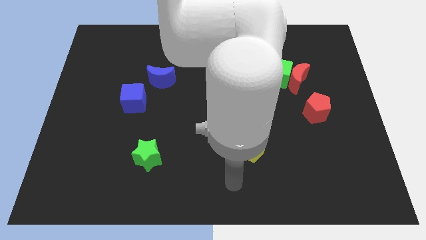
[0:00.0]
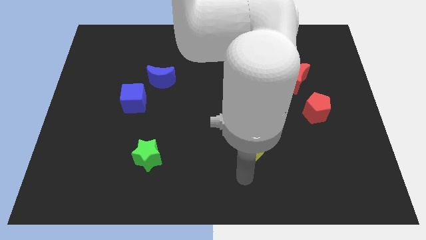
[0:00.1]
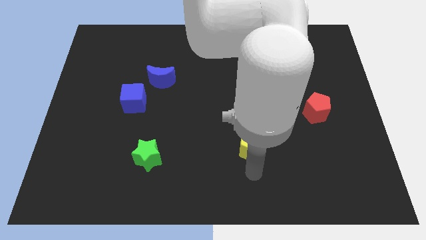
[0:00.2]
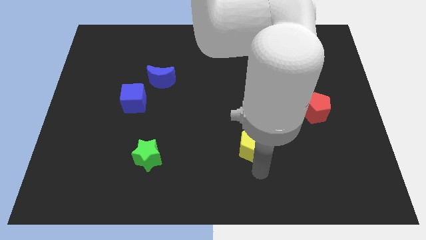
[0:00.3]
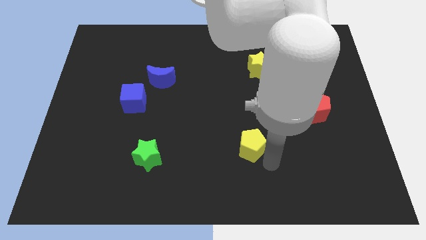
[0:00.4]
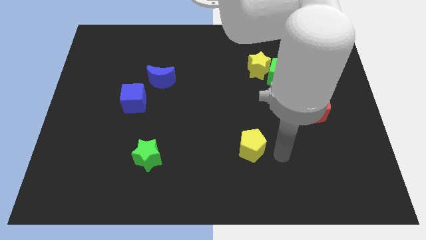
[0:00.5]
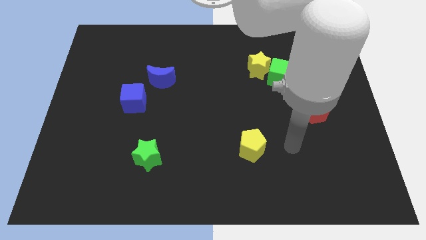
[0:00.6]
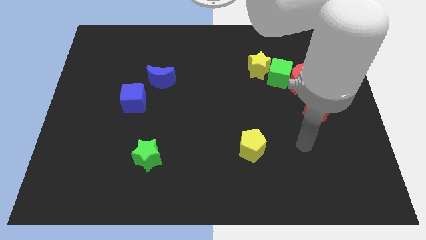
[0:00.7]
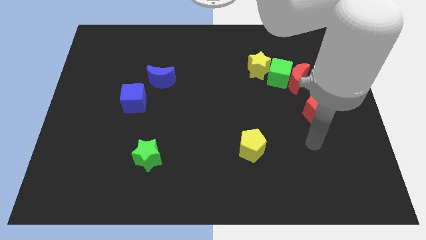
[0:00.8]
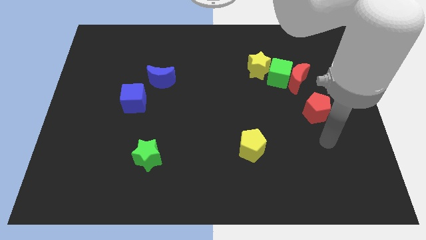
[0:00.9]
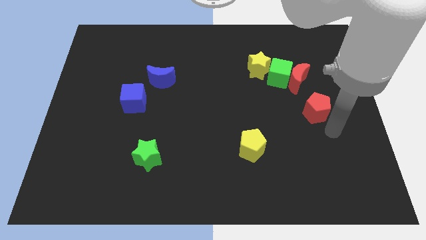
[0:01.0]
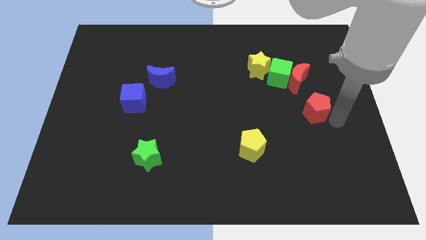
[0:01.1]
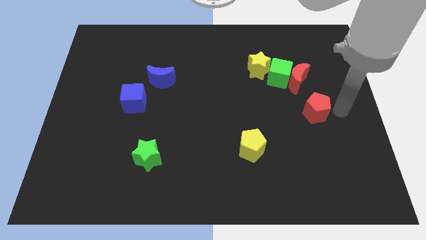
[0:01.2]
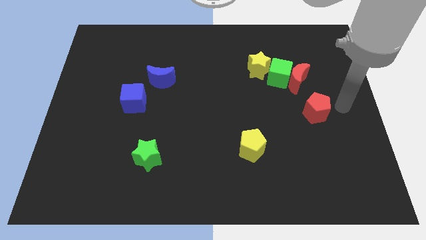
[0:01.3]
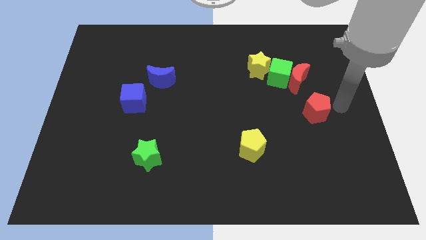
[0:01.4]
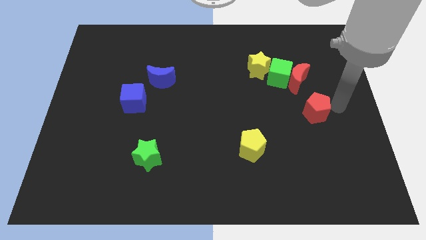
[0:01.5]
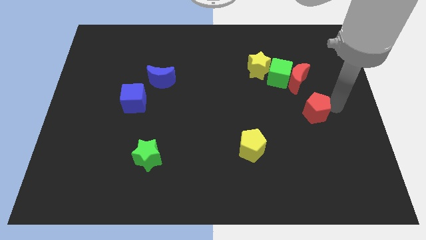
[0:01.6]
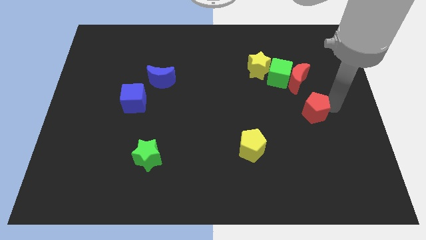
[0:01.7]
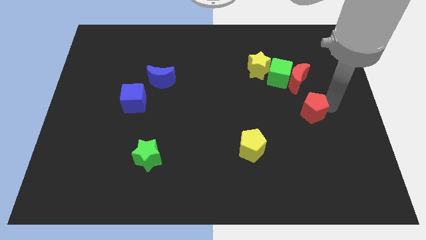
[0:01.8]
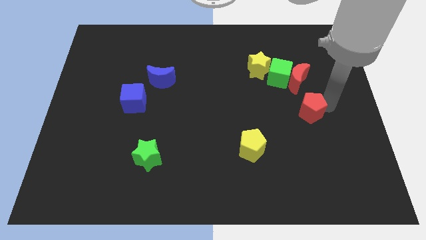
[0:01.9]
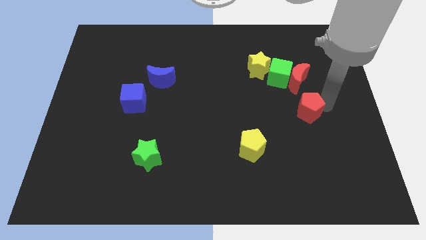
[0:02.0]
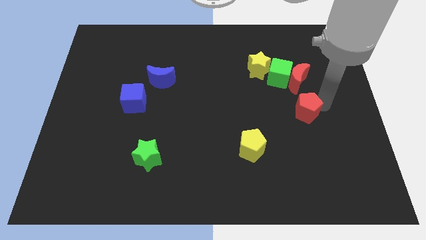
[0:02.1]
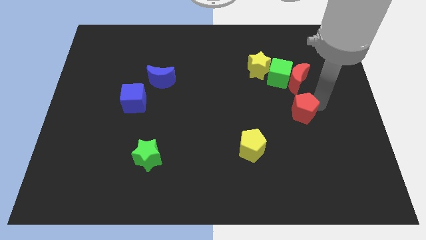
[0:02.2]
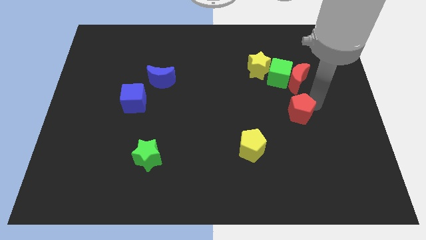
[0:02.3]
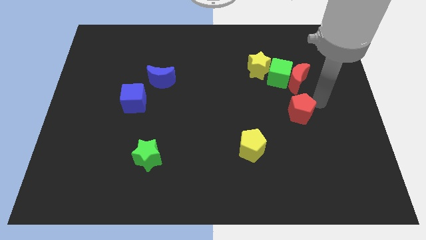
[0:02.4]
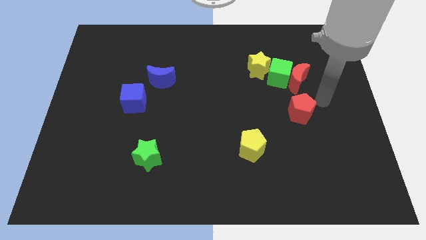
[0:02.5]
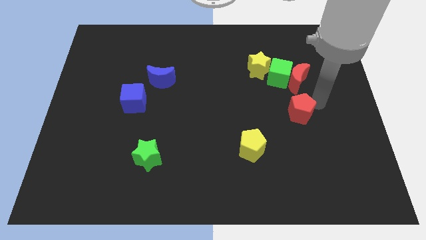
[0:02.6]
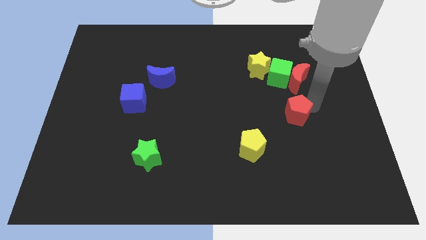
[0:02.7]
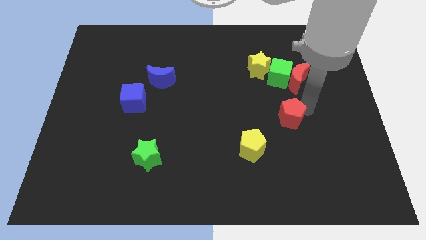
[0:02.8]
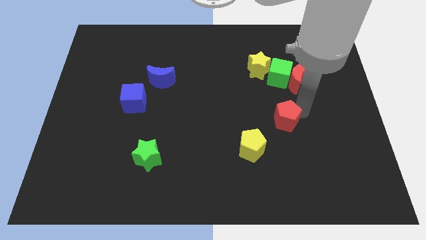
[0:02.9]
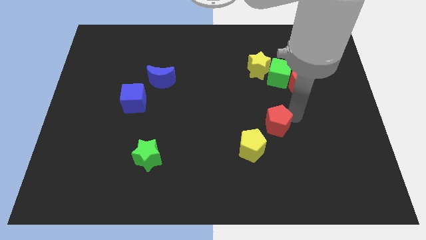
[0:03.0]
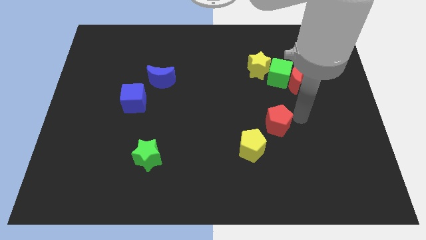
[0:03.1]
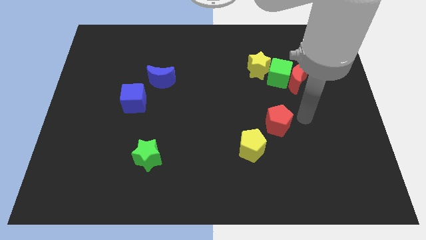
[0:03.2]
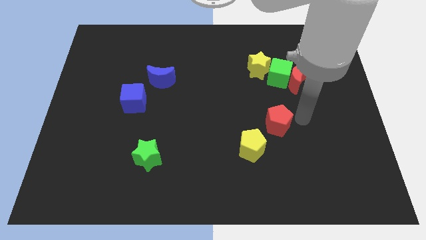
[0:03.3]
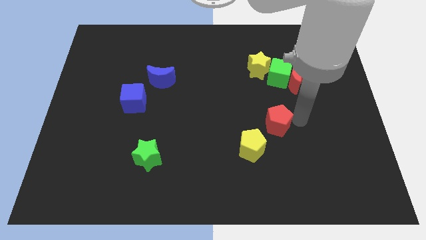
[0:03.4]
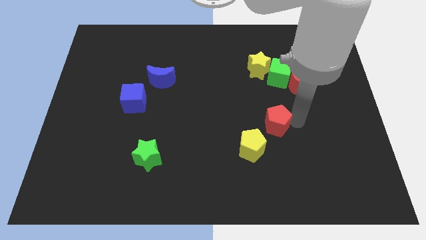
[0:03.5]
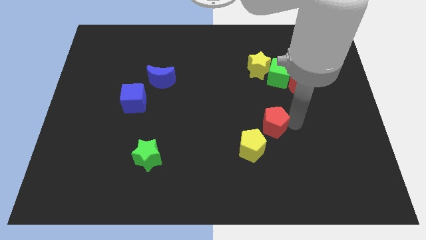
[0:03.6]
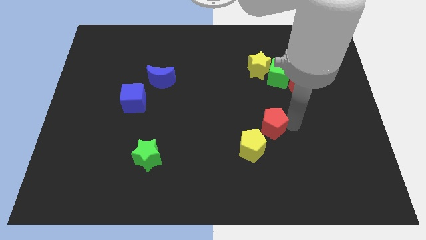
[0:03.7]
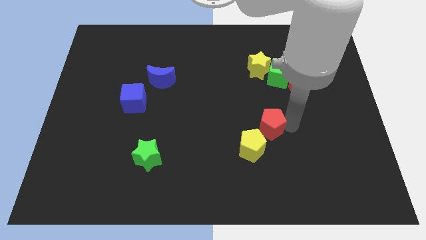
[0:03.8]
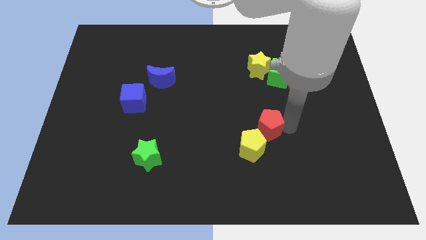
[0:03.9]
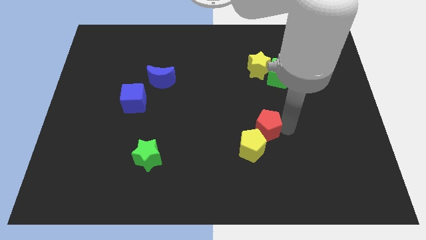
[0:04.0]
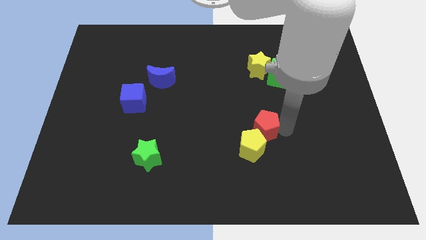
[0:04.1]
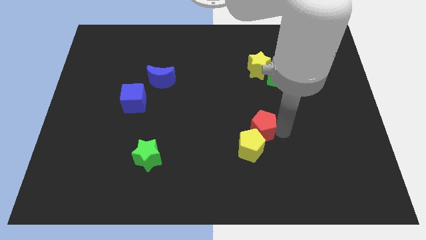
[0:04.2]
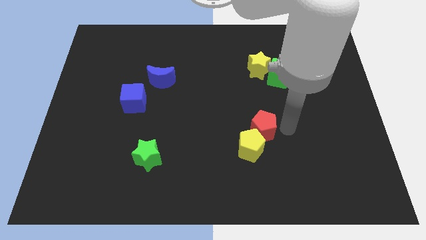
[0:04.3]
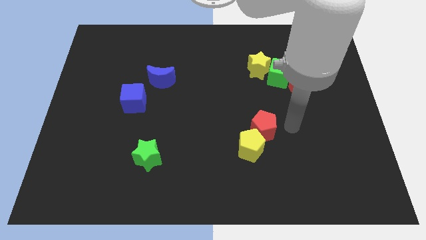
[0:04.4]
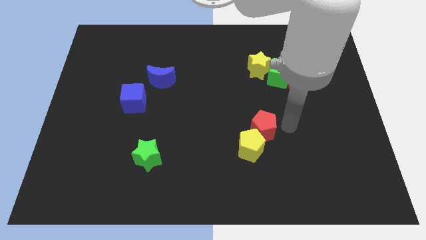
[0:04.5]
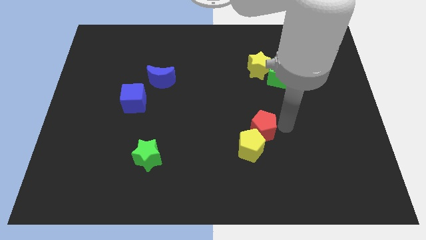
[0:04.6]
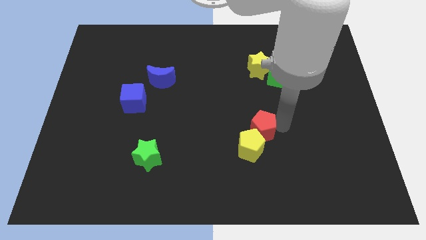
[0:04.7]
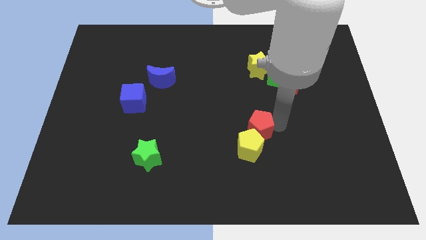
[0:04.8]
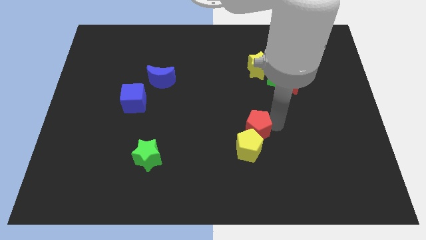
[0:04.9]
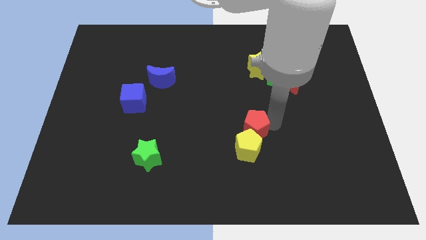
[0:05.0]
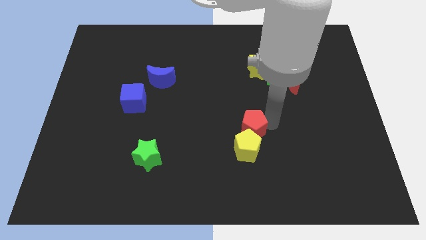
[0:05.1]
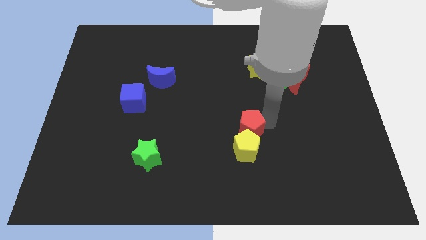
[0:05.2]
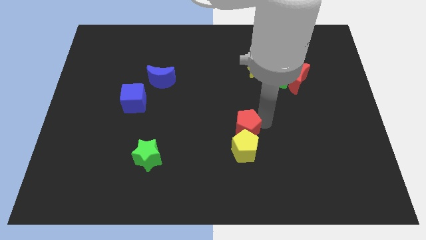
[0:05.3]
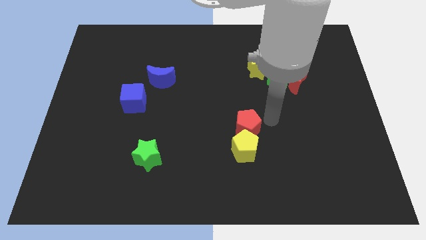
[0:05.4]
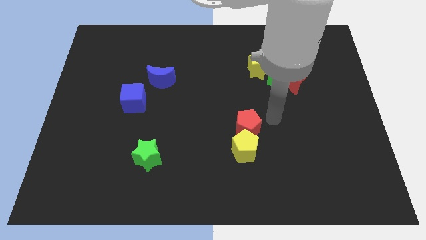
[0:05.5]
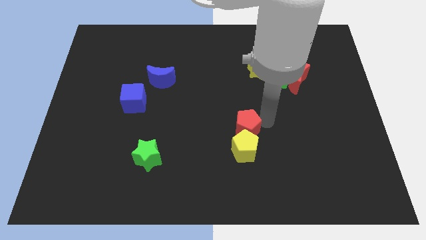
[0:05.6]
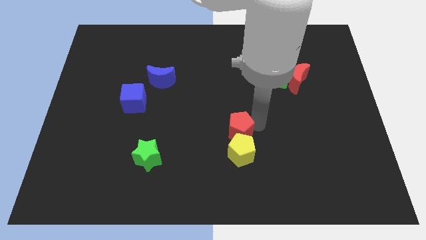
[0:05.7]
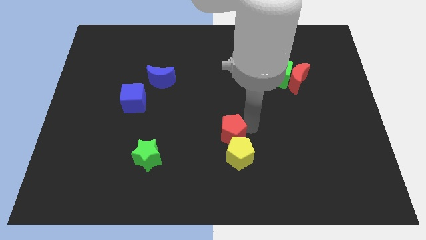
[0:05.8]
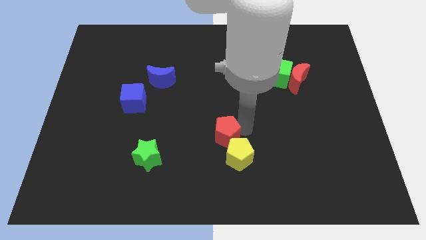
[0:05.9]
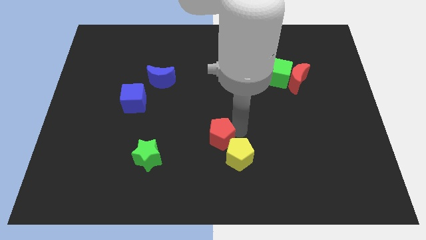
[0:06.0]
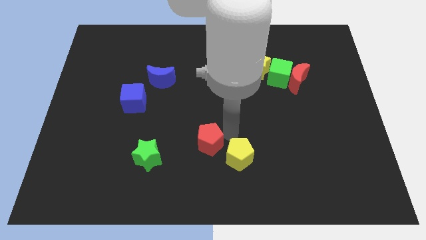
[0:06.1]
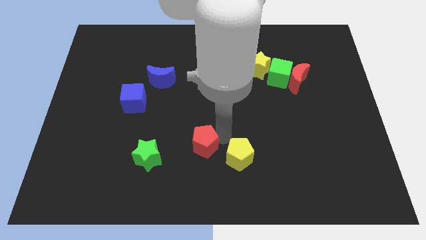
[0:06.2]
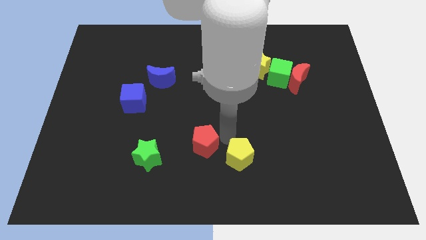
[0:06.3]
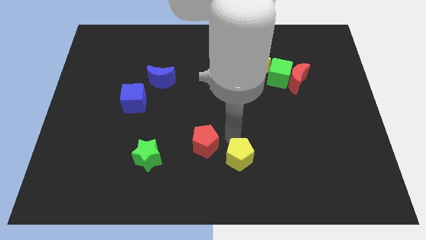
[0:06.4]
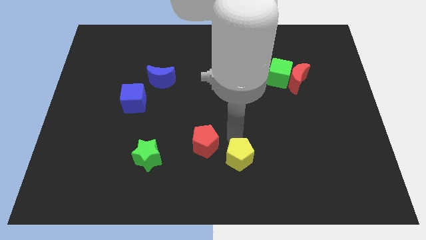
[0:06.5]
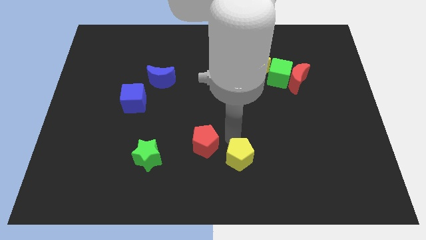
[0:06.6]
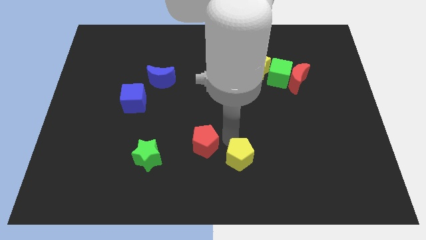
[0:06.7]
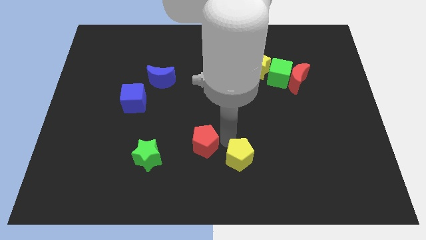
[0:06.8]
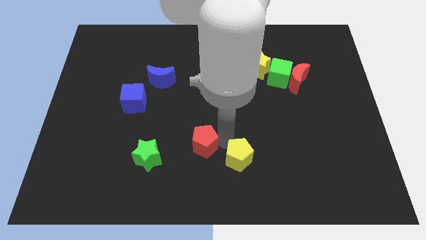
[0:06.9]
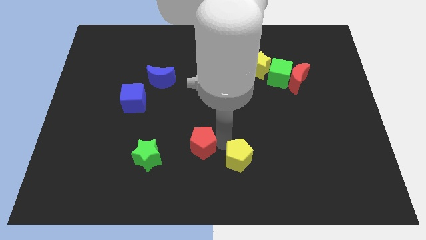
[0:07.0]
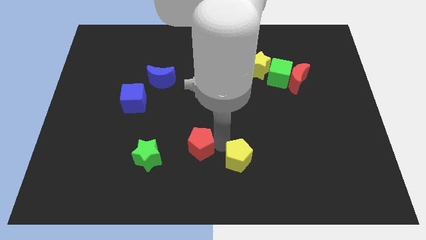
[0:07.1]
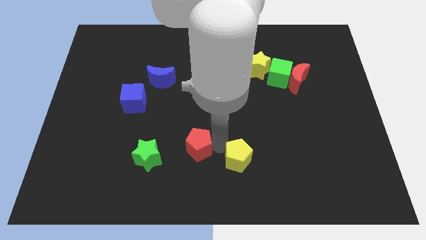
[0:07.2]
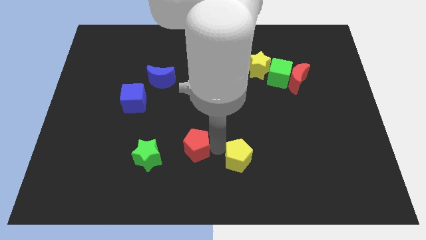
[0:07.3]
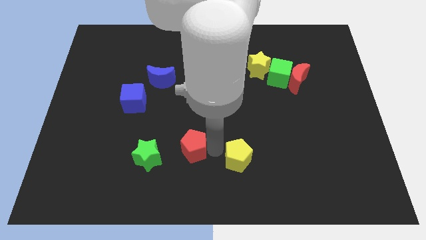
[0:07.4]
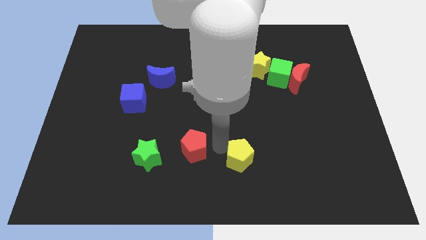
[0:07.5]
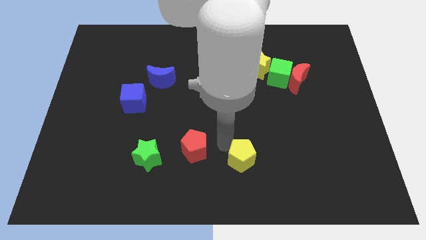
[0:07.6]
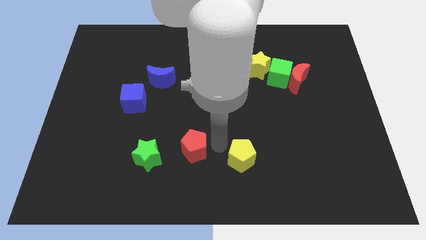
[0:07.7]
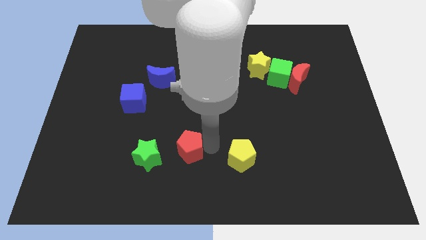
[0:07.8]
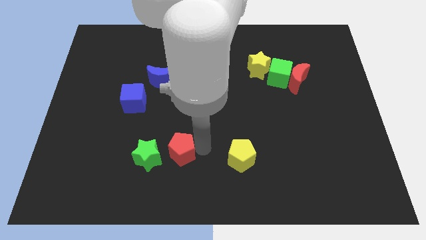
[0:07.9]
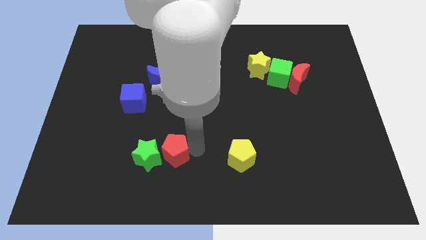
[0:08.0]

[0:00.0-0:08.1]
slide the red pentagon towards the green star
